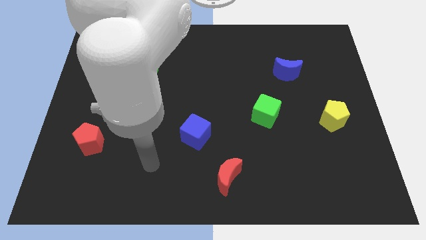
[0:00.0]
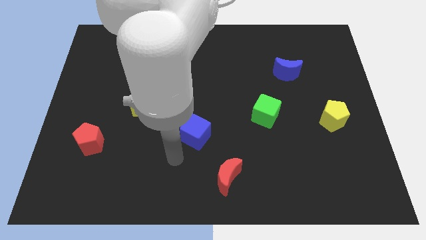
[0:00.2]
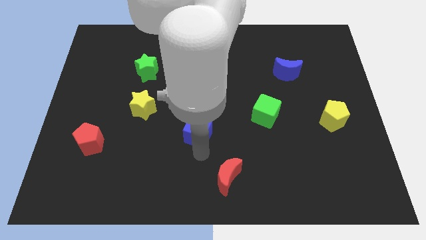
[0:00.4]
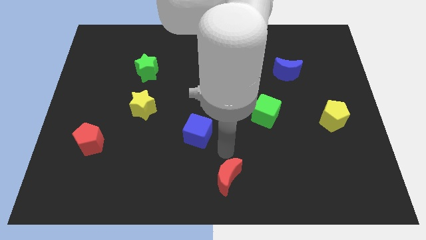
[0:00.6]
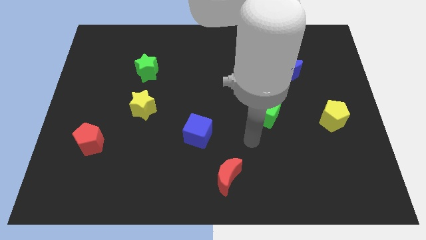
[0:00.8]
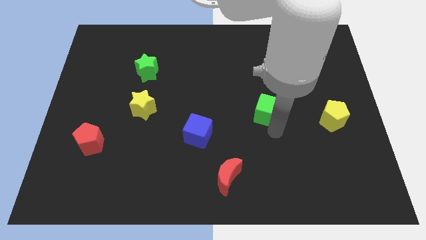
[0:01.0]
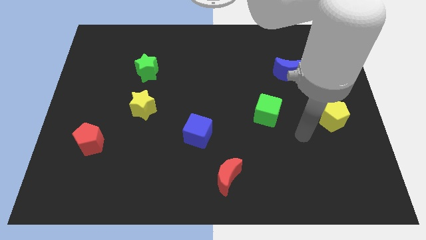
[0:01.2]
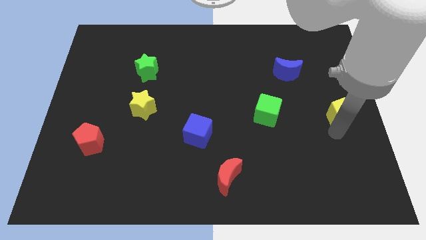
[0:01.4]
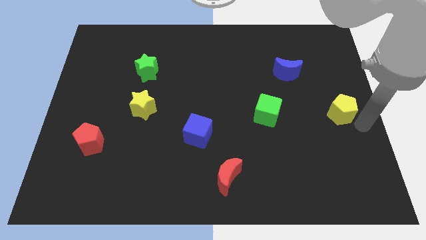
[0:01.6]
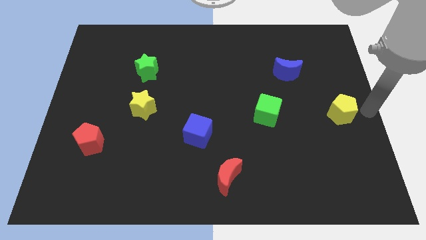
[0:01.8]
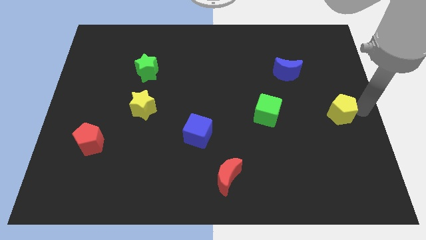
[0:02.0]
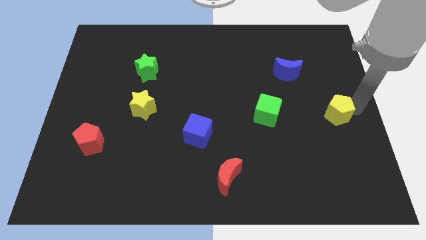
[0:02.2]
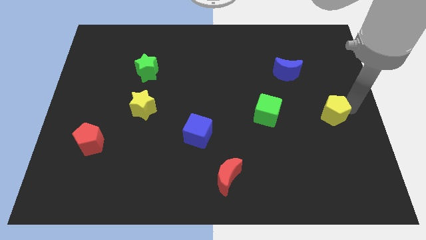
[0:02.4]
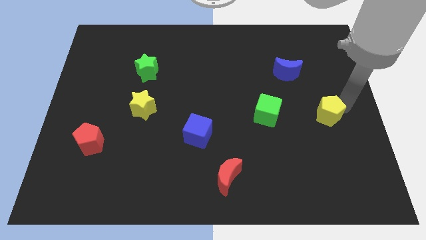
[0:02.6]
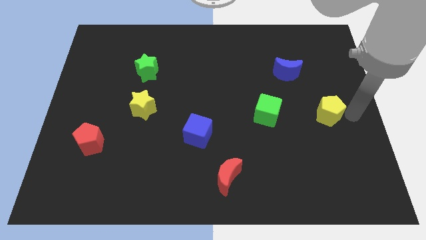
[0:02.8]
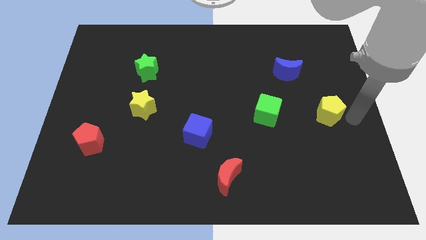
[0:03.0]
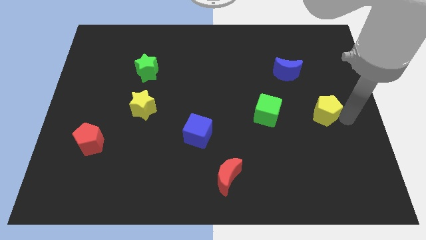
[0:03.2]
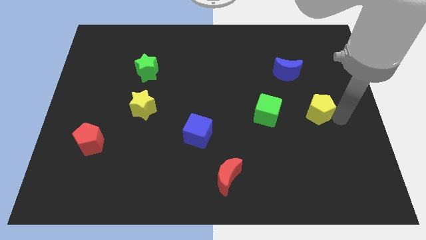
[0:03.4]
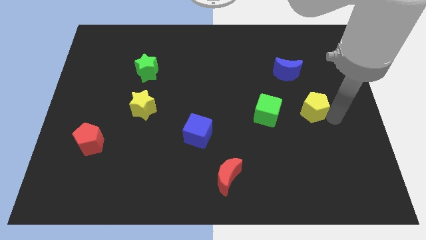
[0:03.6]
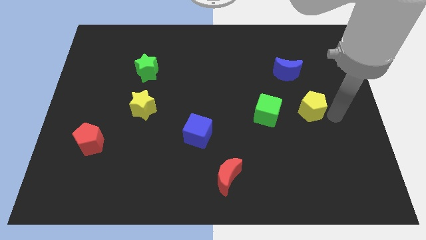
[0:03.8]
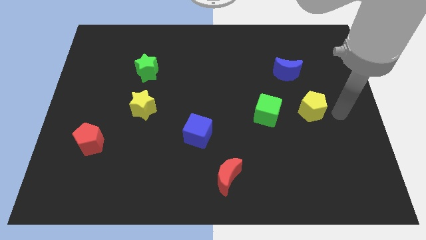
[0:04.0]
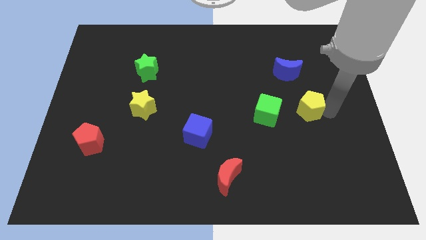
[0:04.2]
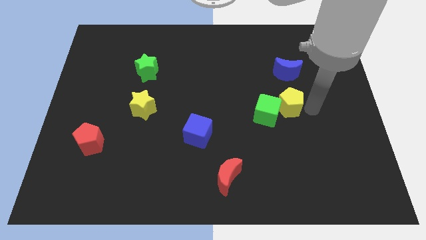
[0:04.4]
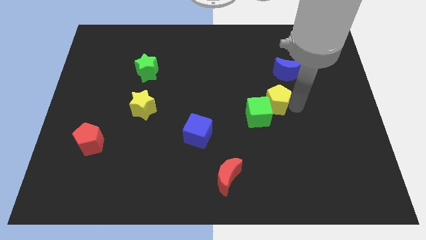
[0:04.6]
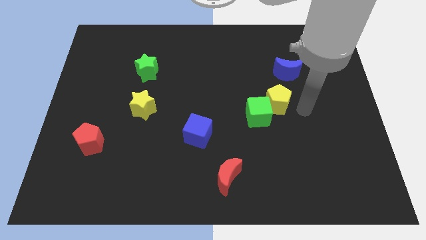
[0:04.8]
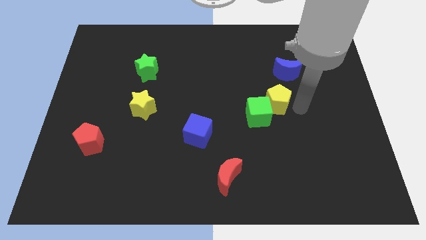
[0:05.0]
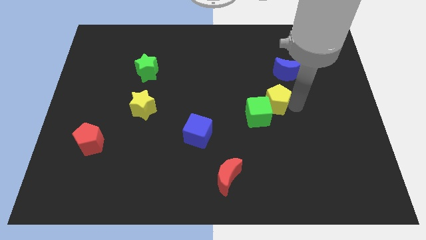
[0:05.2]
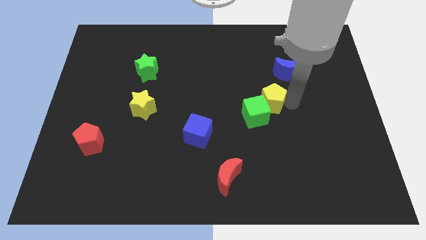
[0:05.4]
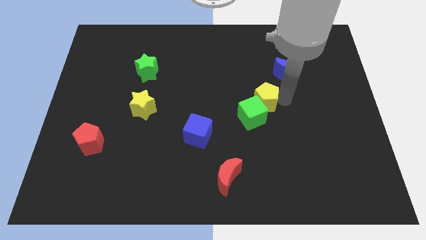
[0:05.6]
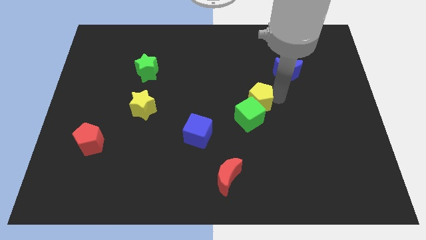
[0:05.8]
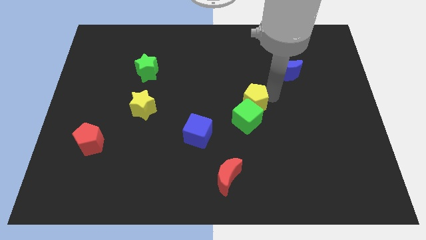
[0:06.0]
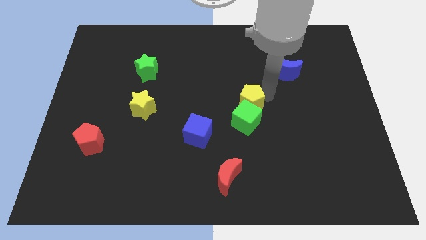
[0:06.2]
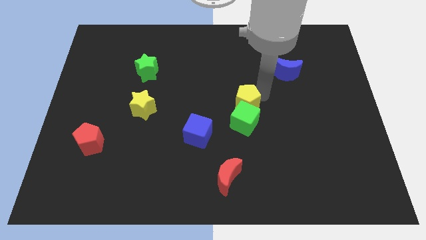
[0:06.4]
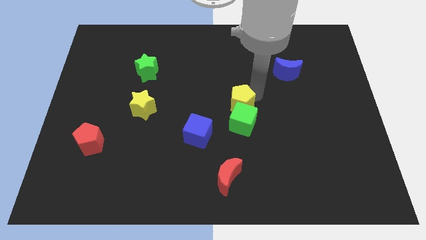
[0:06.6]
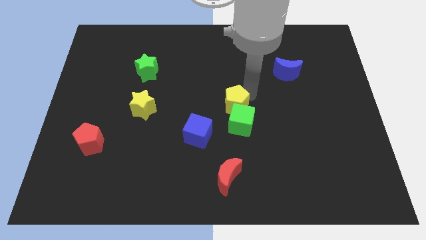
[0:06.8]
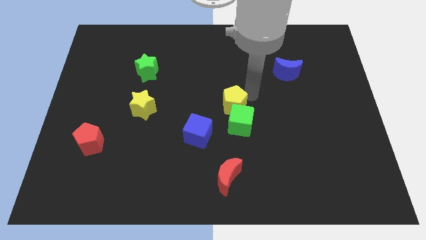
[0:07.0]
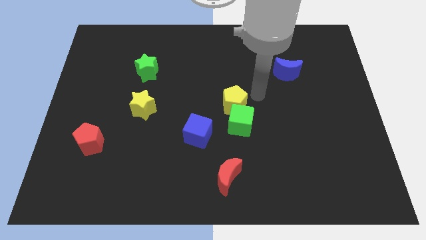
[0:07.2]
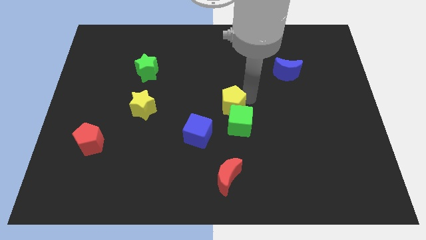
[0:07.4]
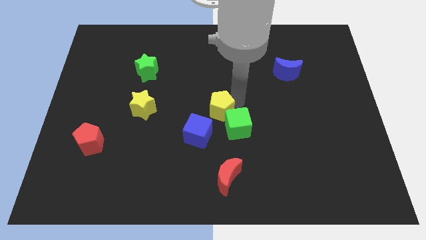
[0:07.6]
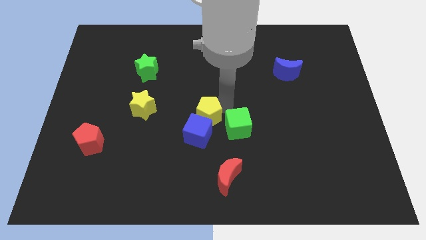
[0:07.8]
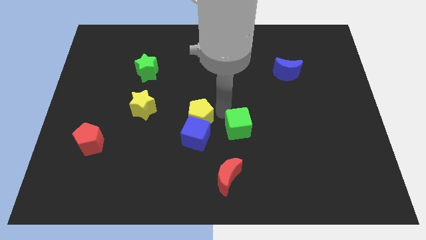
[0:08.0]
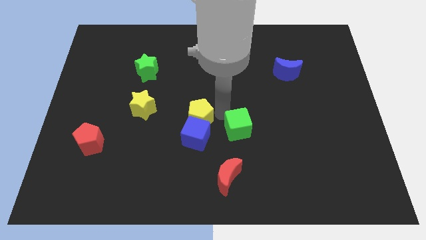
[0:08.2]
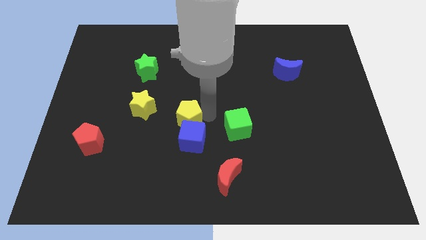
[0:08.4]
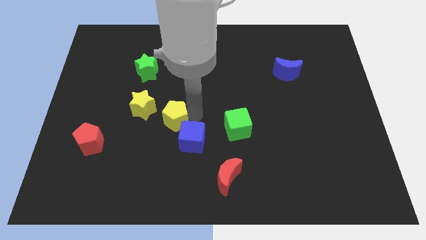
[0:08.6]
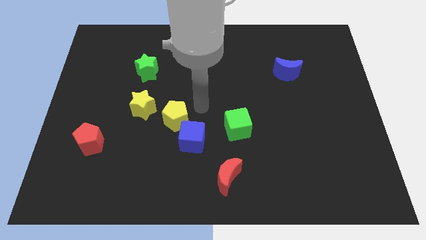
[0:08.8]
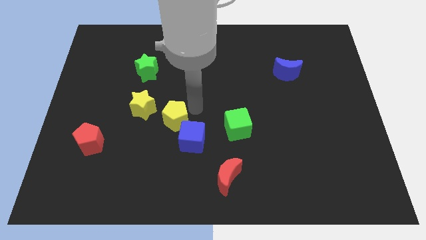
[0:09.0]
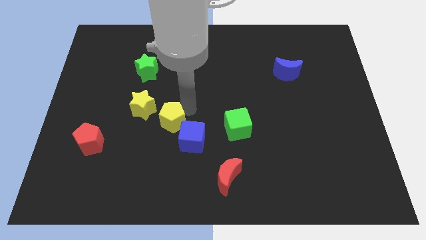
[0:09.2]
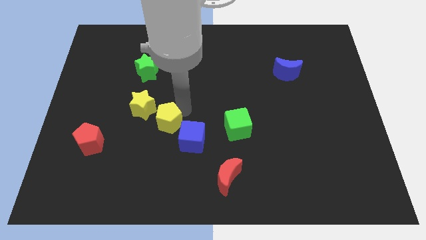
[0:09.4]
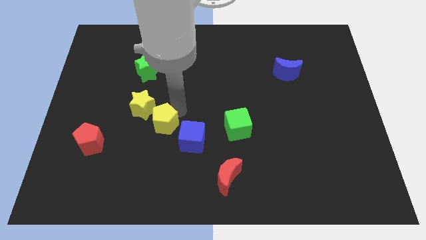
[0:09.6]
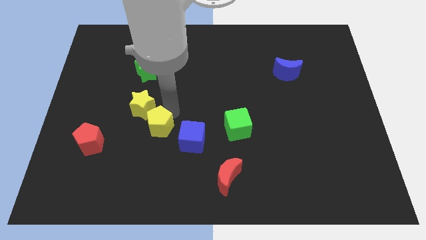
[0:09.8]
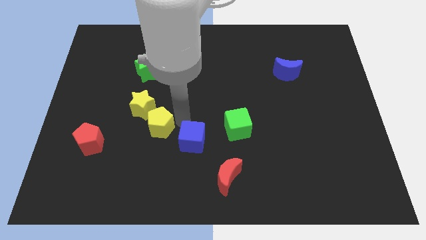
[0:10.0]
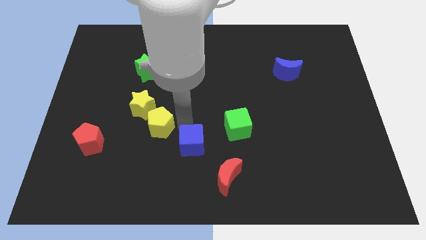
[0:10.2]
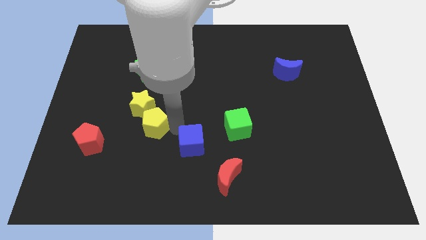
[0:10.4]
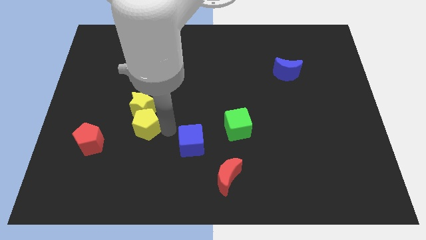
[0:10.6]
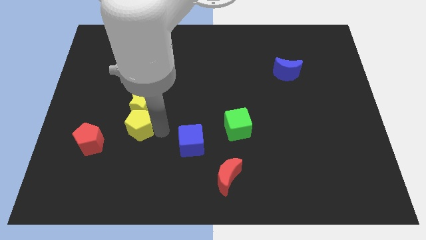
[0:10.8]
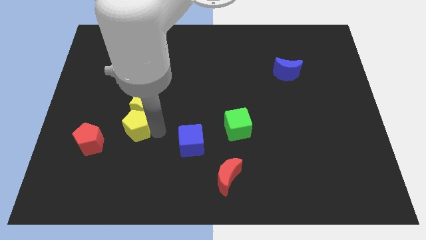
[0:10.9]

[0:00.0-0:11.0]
put the yellow pentagon diagonally up and to the right of the red pentagon

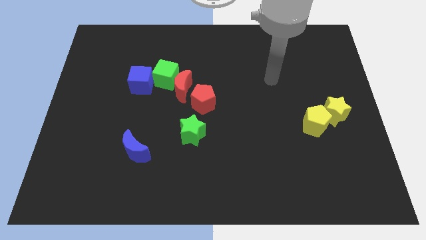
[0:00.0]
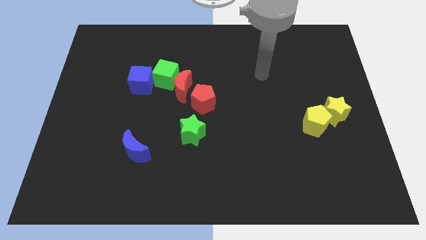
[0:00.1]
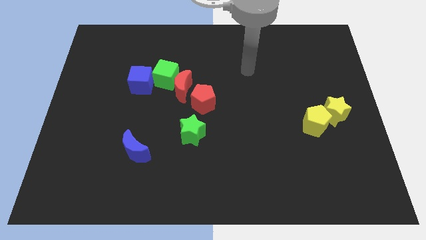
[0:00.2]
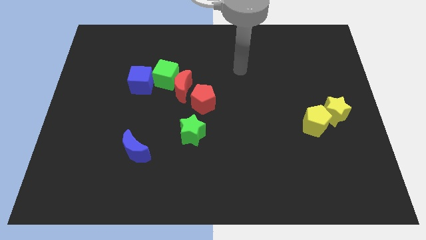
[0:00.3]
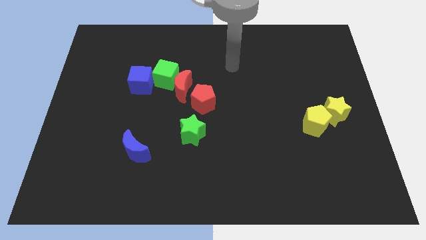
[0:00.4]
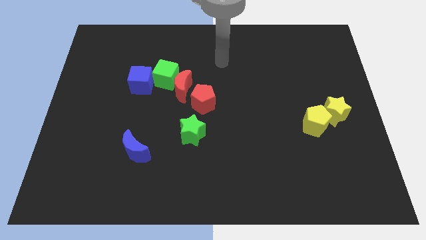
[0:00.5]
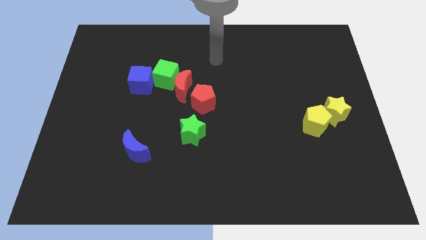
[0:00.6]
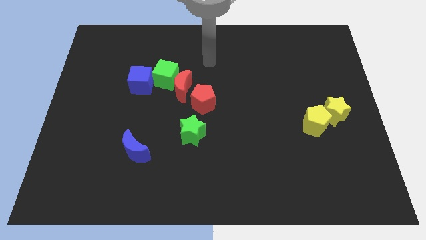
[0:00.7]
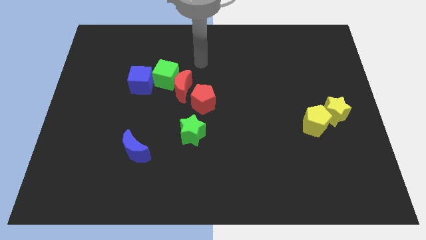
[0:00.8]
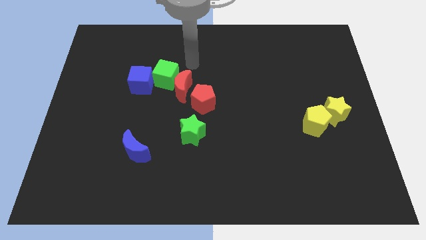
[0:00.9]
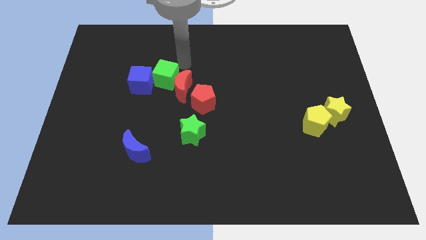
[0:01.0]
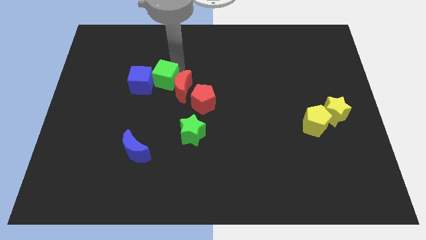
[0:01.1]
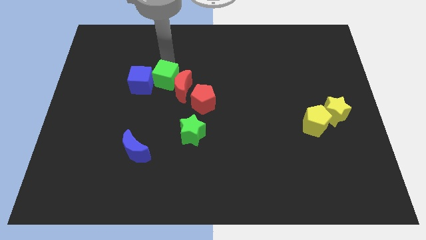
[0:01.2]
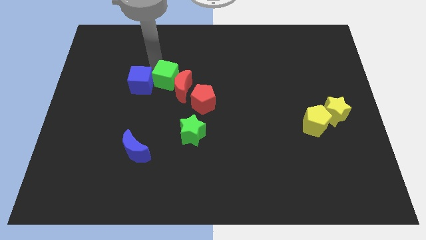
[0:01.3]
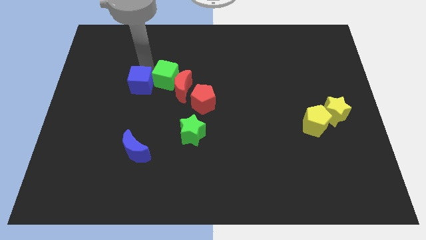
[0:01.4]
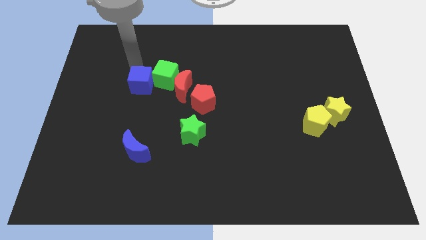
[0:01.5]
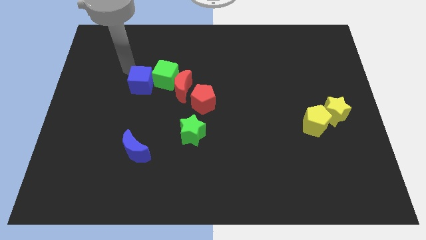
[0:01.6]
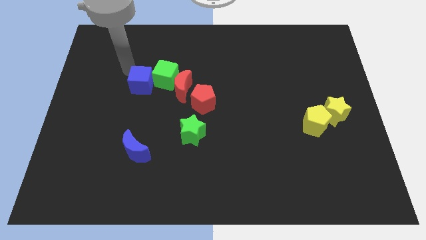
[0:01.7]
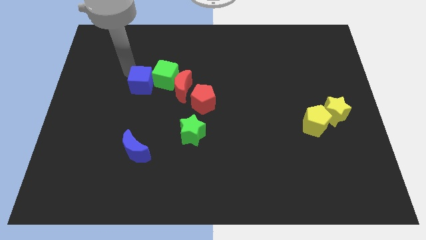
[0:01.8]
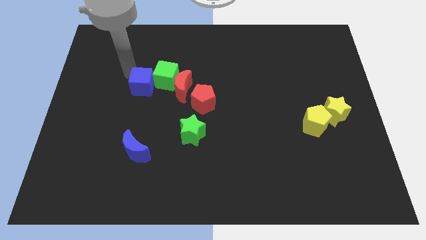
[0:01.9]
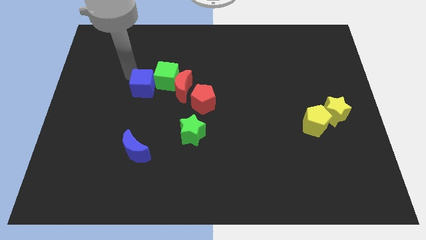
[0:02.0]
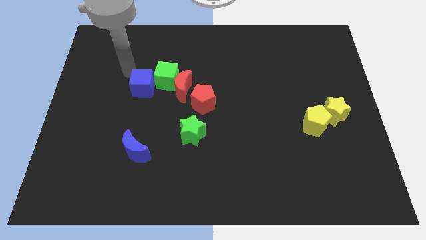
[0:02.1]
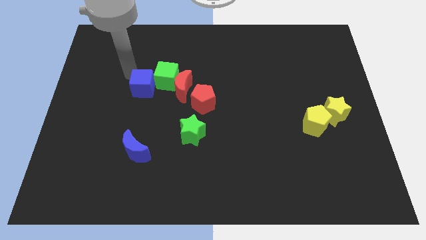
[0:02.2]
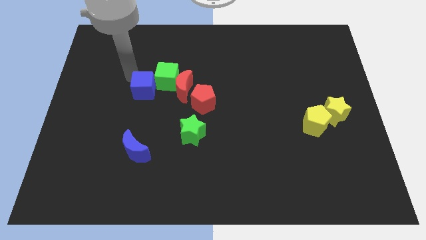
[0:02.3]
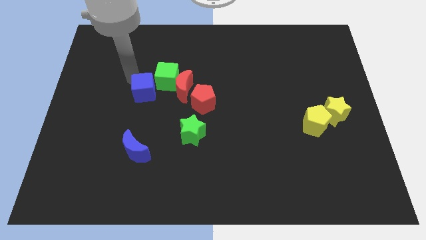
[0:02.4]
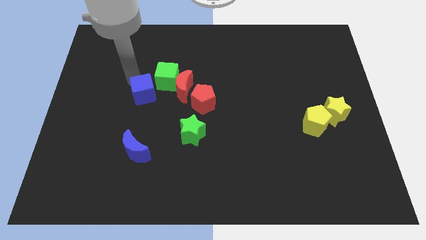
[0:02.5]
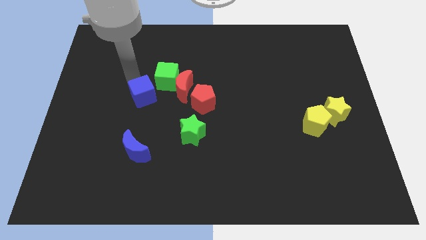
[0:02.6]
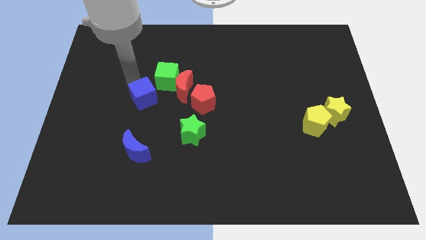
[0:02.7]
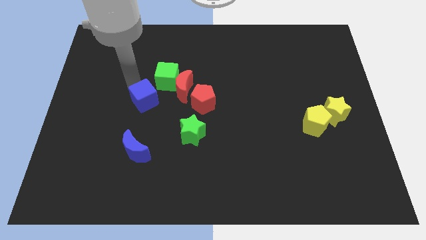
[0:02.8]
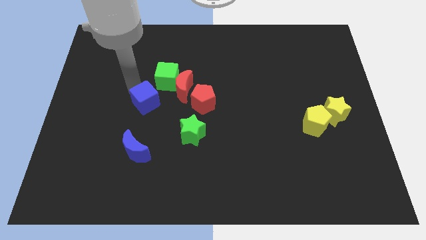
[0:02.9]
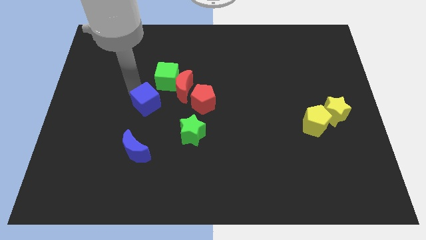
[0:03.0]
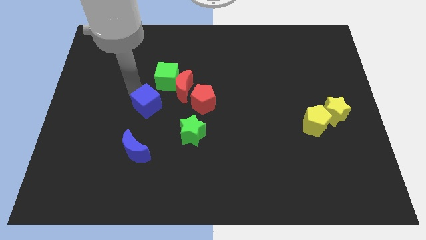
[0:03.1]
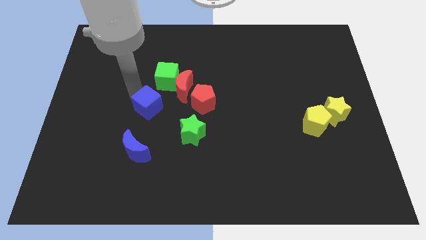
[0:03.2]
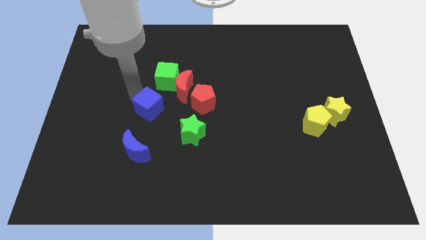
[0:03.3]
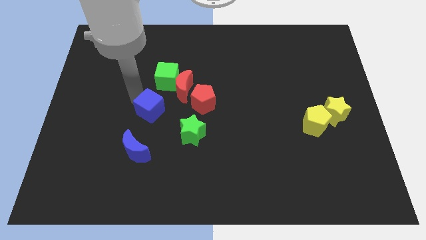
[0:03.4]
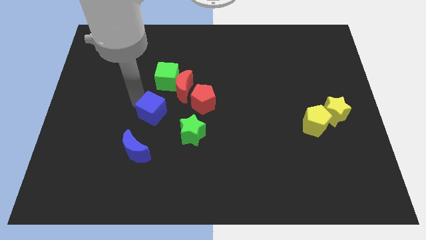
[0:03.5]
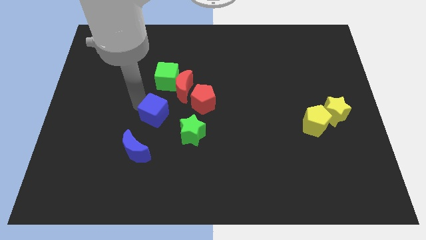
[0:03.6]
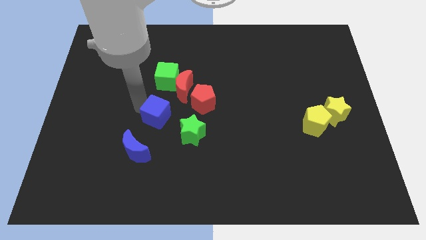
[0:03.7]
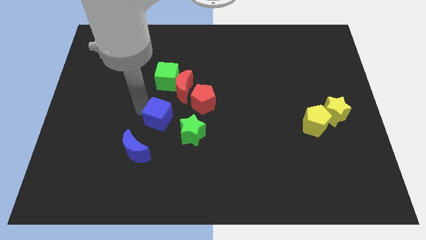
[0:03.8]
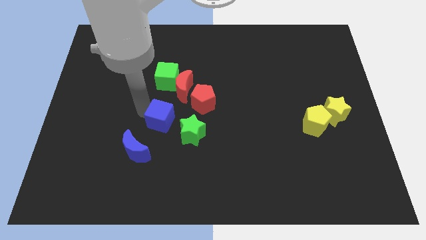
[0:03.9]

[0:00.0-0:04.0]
slide the blue cube below the red moon
